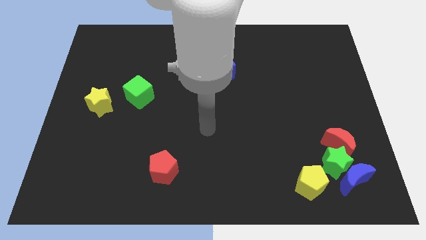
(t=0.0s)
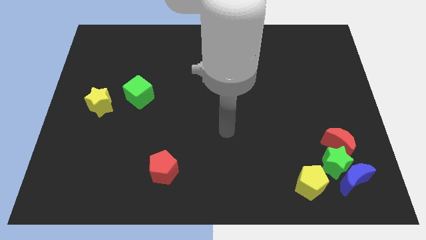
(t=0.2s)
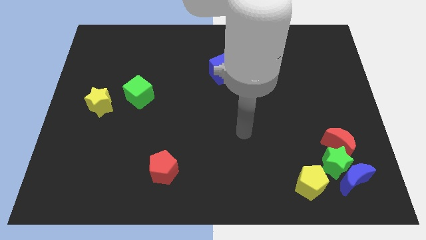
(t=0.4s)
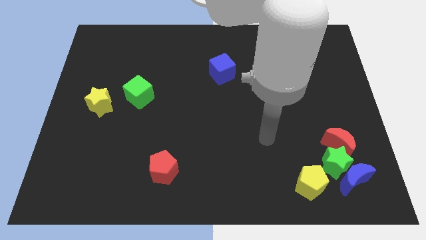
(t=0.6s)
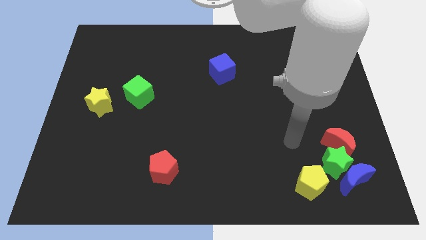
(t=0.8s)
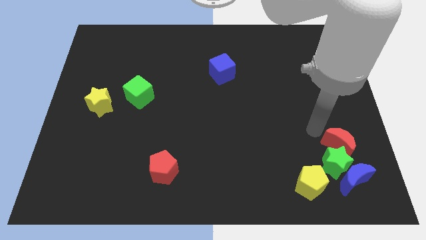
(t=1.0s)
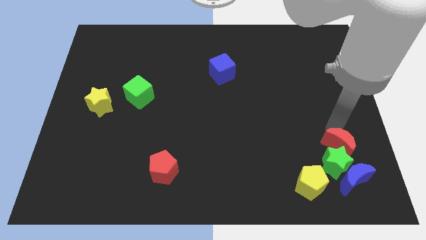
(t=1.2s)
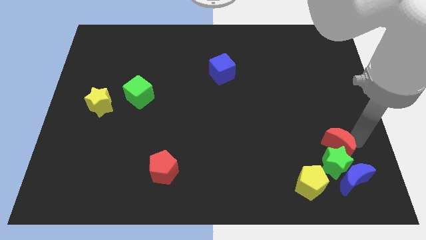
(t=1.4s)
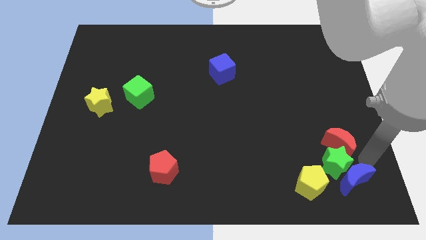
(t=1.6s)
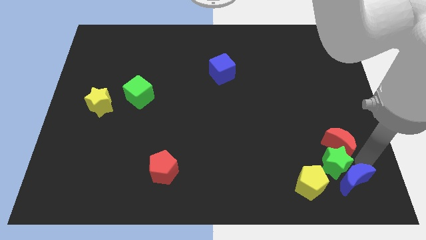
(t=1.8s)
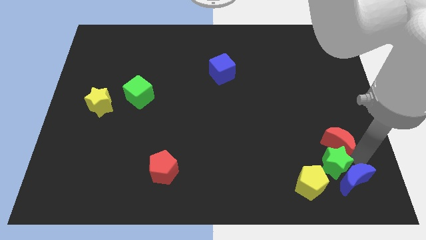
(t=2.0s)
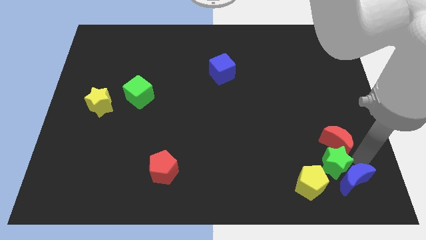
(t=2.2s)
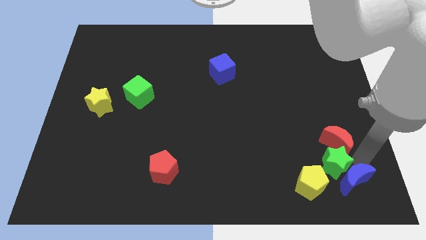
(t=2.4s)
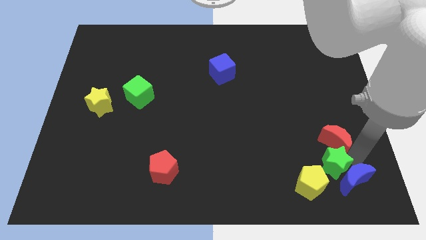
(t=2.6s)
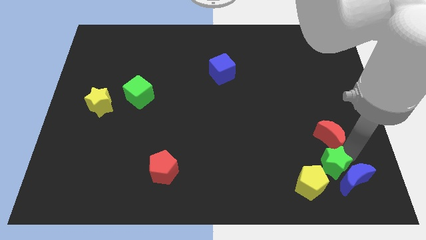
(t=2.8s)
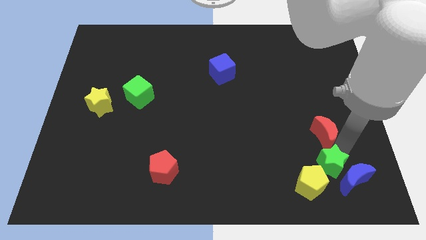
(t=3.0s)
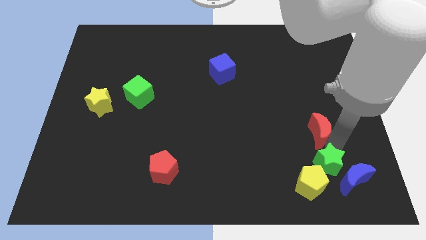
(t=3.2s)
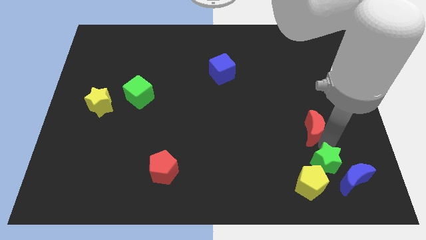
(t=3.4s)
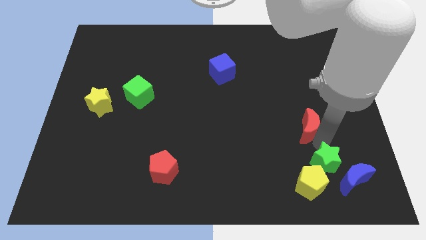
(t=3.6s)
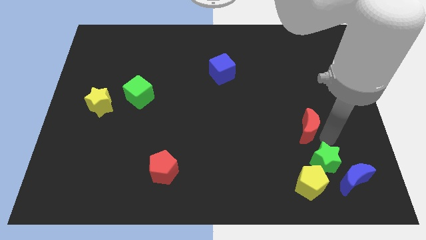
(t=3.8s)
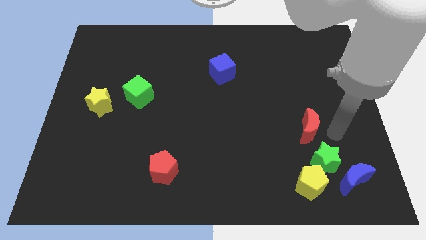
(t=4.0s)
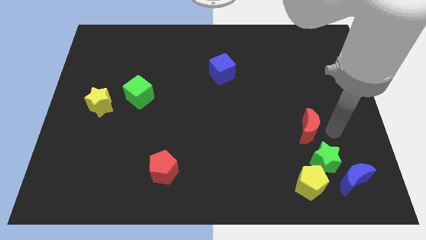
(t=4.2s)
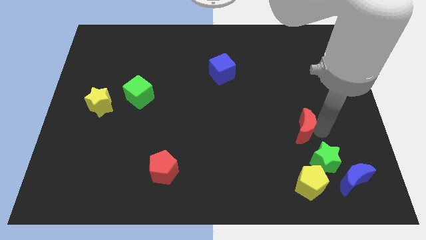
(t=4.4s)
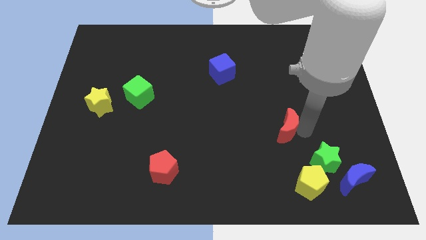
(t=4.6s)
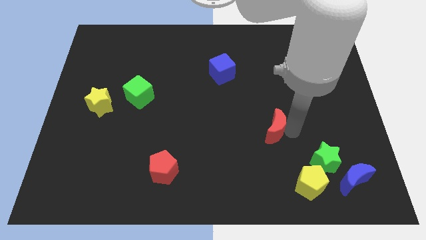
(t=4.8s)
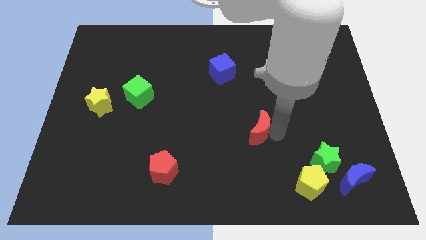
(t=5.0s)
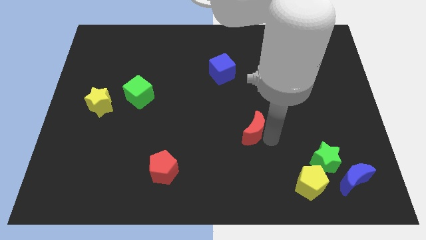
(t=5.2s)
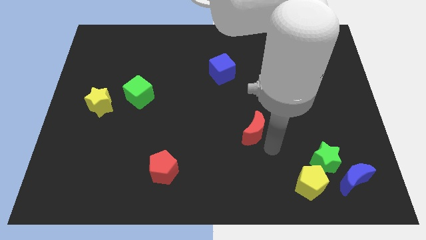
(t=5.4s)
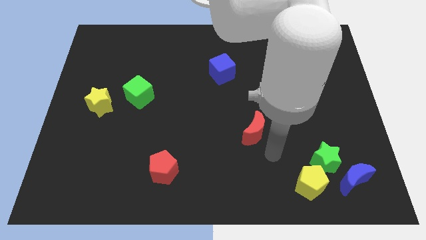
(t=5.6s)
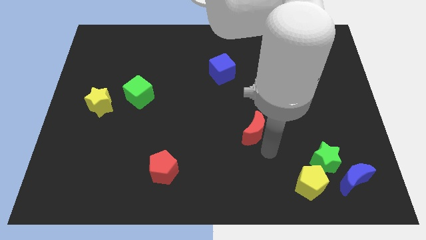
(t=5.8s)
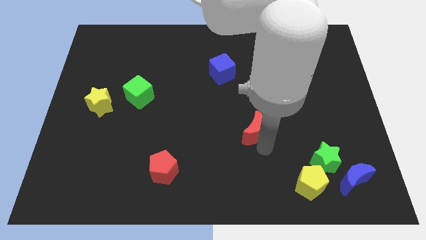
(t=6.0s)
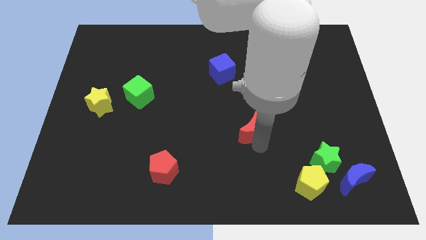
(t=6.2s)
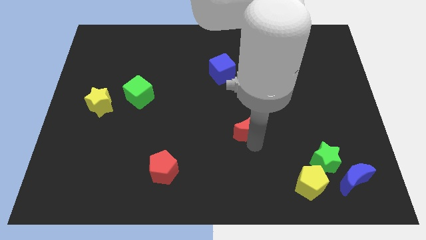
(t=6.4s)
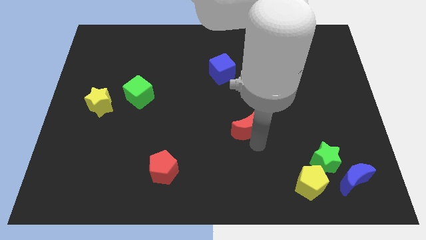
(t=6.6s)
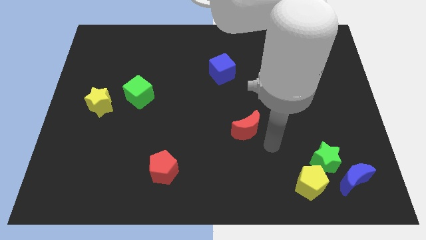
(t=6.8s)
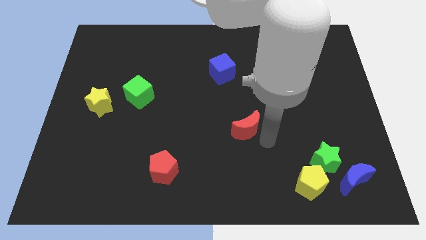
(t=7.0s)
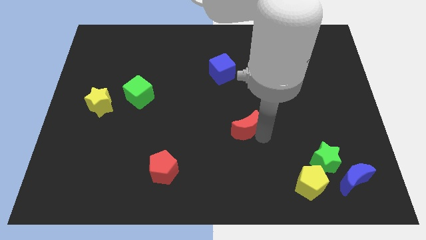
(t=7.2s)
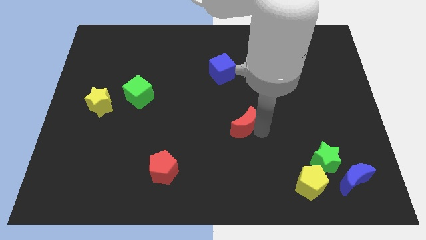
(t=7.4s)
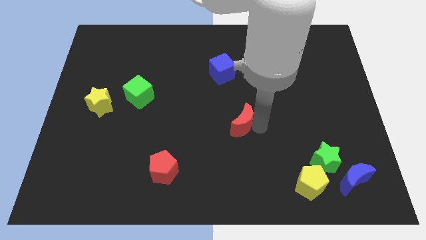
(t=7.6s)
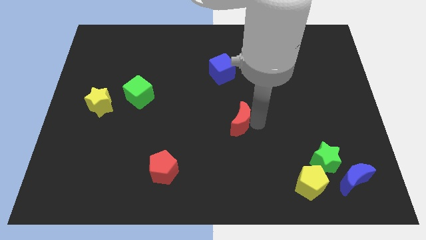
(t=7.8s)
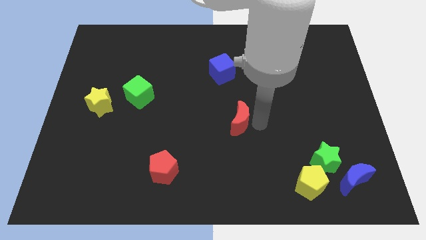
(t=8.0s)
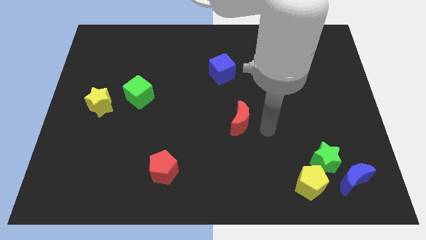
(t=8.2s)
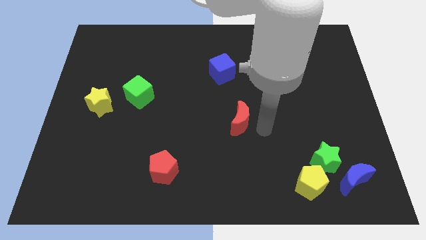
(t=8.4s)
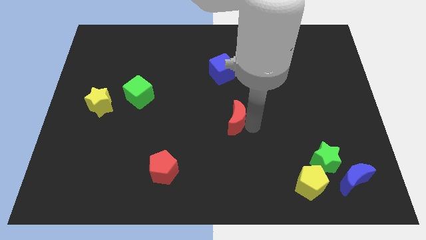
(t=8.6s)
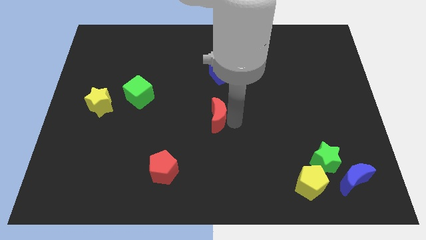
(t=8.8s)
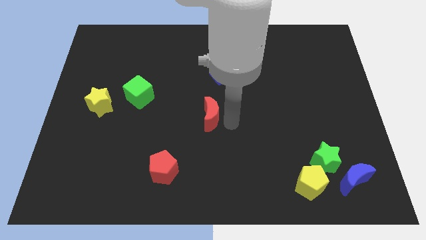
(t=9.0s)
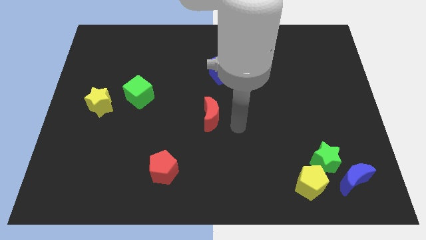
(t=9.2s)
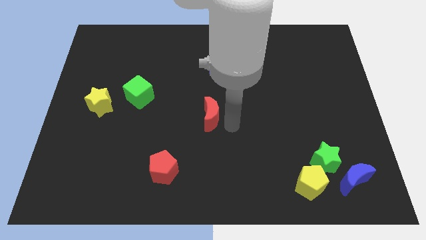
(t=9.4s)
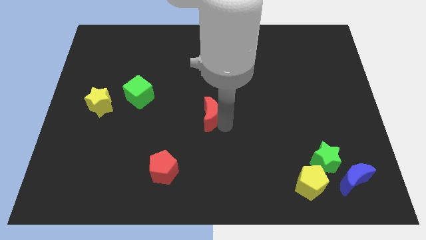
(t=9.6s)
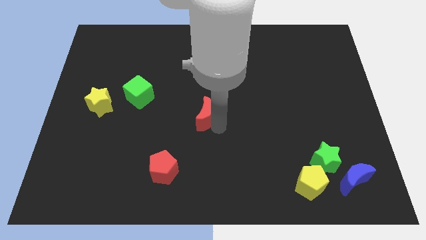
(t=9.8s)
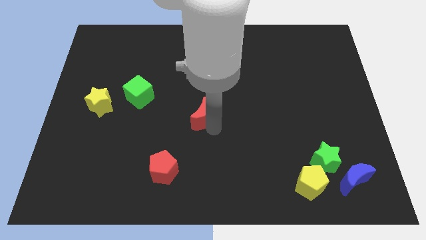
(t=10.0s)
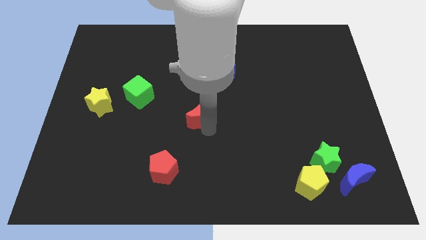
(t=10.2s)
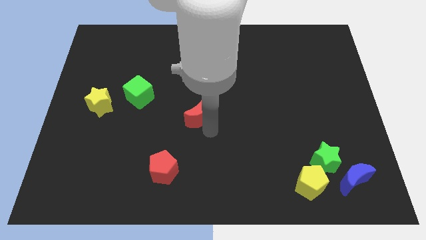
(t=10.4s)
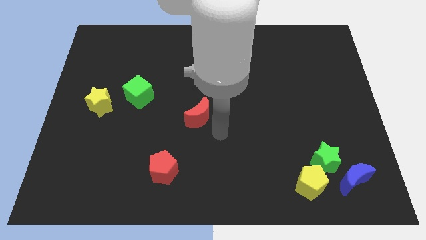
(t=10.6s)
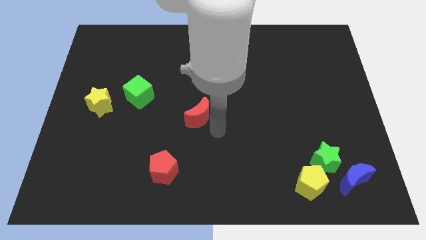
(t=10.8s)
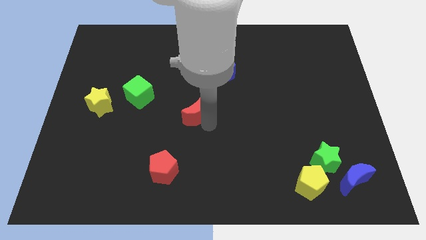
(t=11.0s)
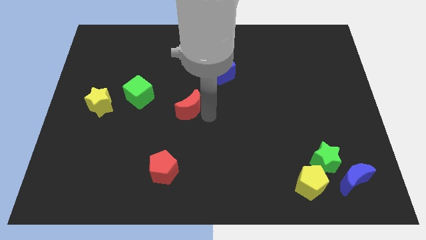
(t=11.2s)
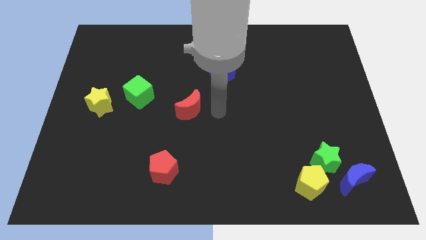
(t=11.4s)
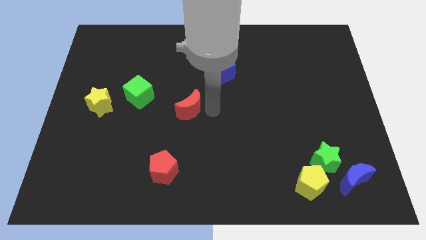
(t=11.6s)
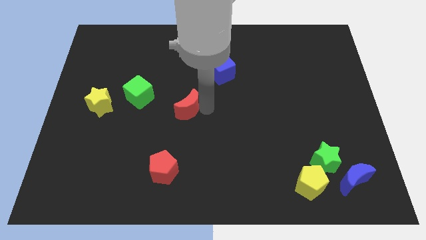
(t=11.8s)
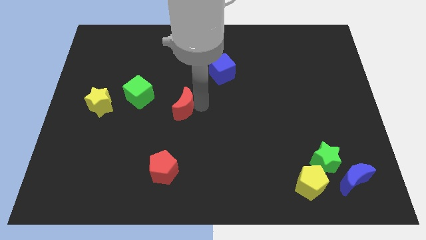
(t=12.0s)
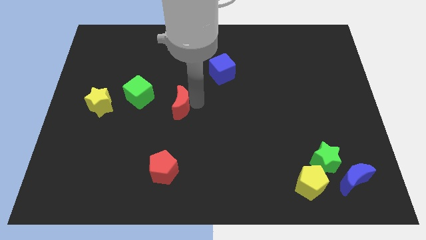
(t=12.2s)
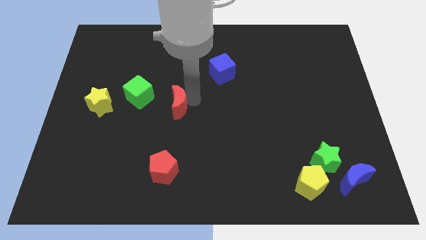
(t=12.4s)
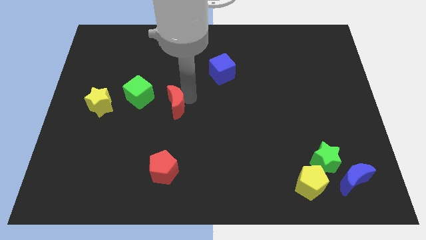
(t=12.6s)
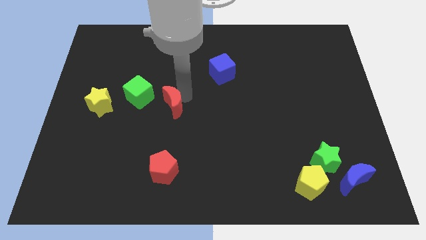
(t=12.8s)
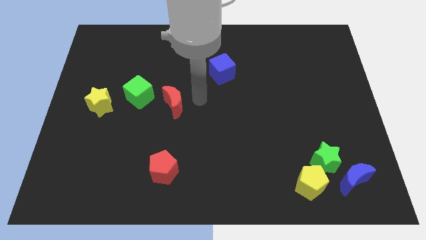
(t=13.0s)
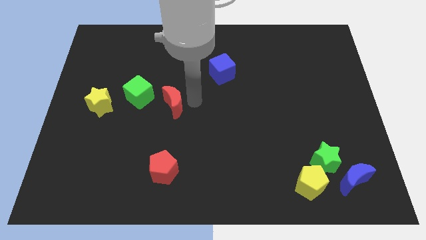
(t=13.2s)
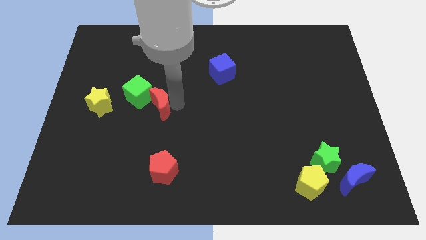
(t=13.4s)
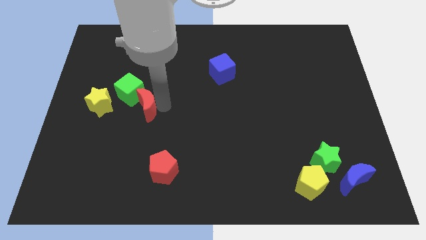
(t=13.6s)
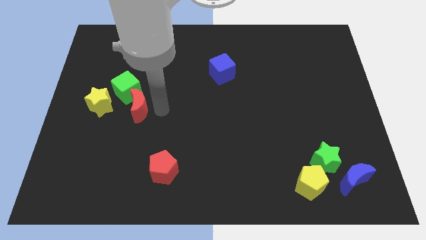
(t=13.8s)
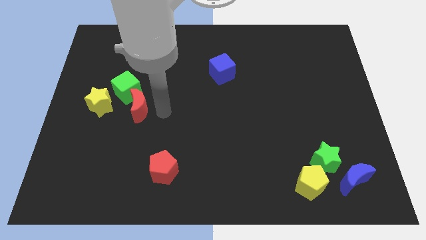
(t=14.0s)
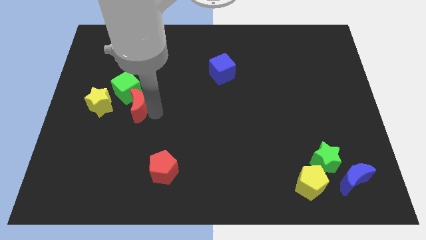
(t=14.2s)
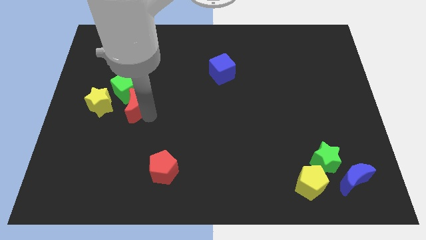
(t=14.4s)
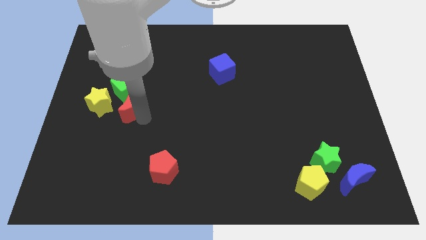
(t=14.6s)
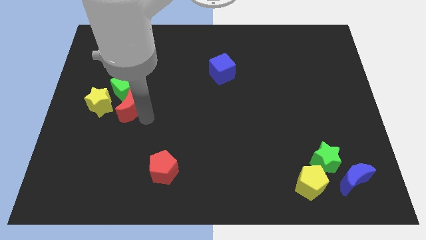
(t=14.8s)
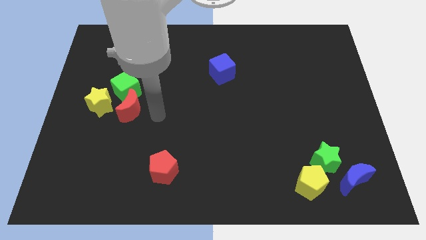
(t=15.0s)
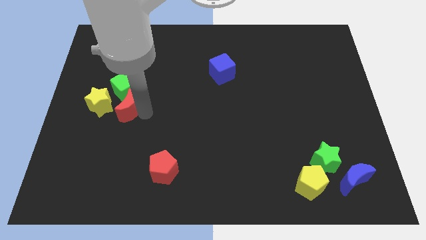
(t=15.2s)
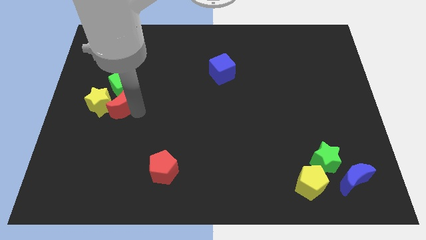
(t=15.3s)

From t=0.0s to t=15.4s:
move the red moon close to the yellow star
